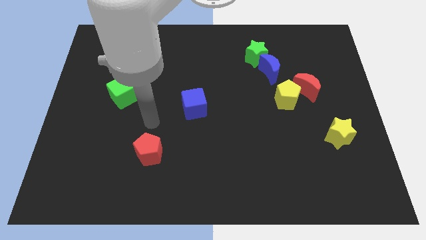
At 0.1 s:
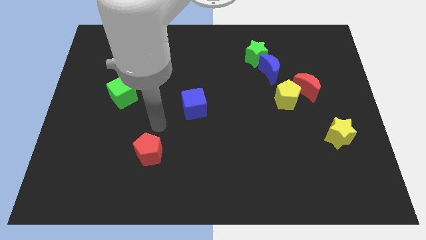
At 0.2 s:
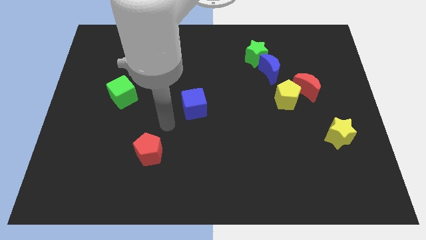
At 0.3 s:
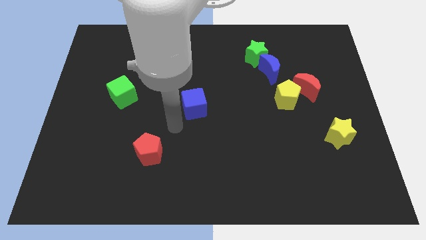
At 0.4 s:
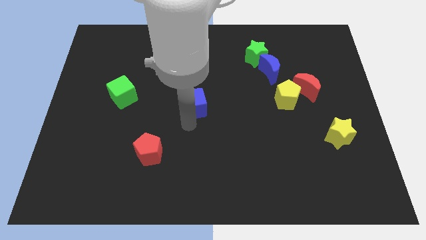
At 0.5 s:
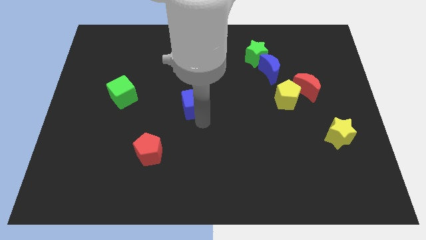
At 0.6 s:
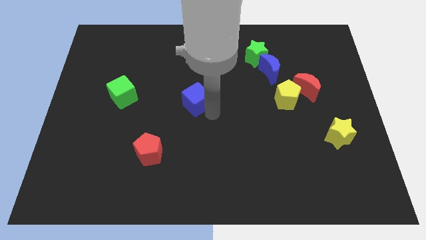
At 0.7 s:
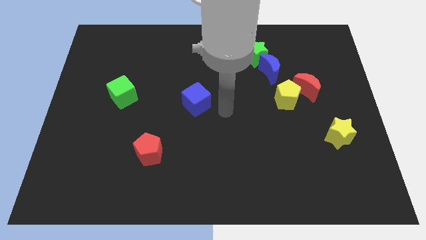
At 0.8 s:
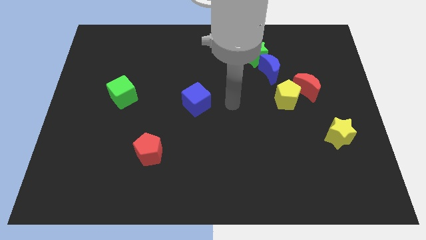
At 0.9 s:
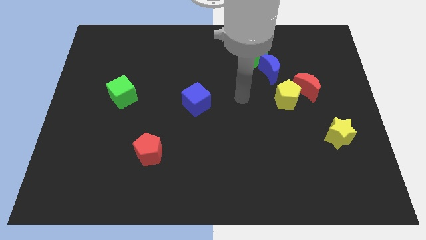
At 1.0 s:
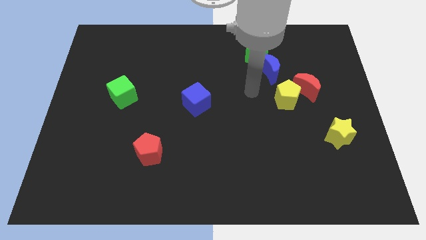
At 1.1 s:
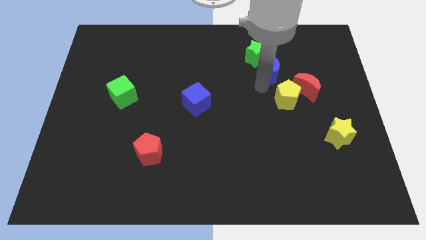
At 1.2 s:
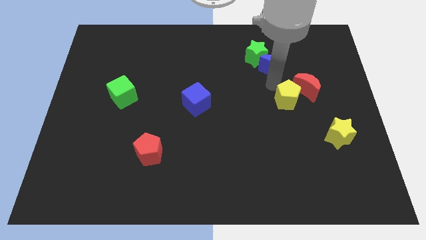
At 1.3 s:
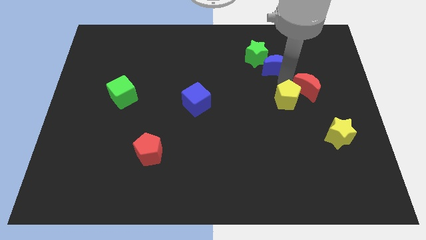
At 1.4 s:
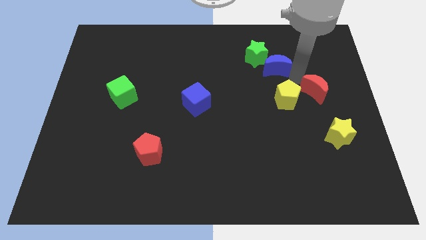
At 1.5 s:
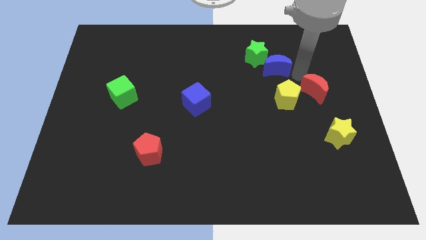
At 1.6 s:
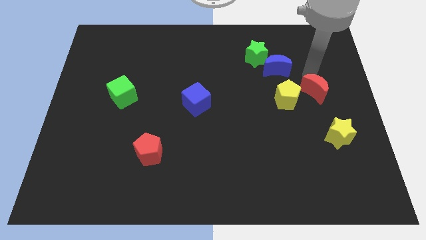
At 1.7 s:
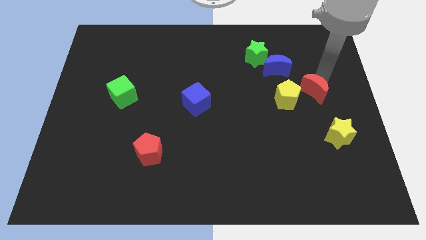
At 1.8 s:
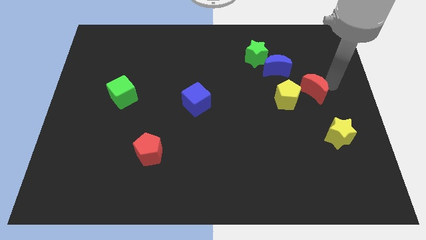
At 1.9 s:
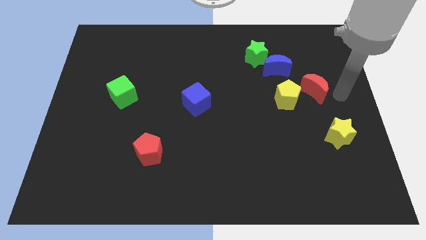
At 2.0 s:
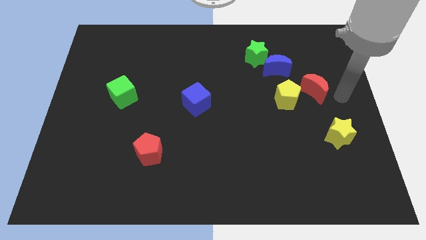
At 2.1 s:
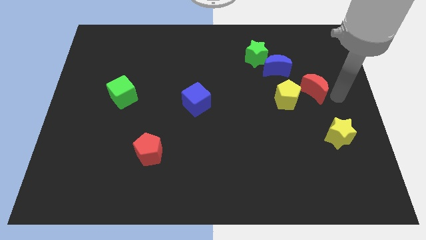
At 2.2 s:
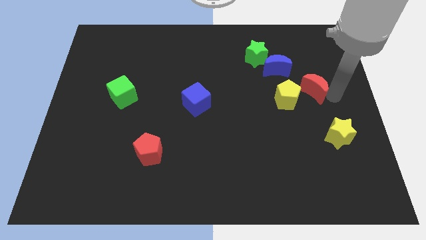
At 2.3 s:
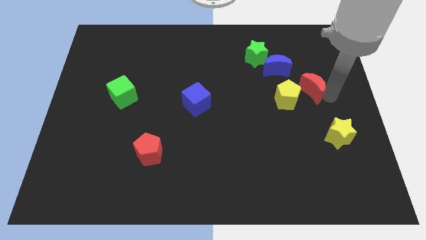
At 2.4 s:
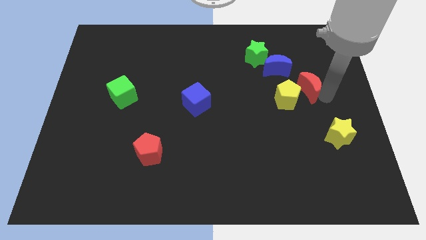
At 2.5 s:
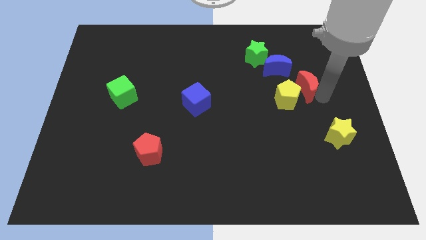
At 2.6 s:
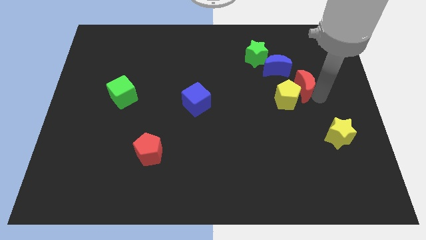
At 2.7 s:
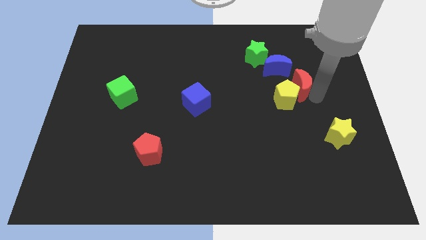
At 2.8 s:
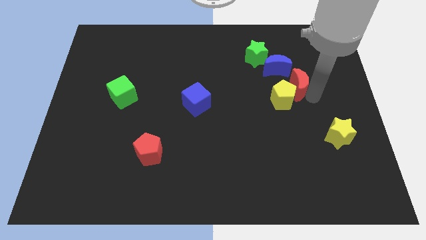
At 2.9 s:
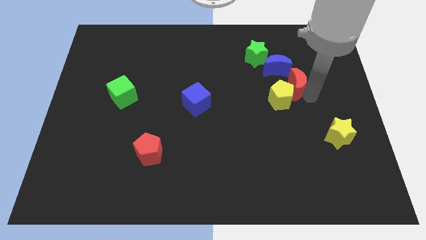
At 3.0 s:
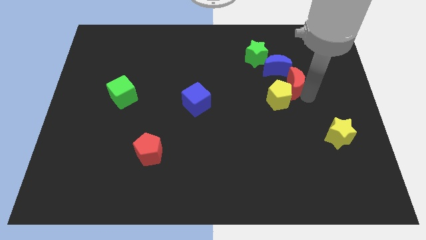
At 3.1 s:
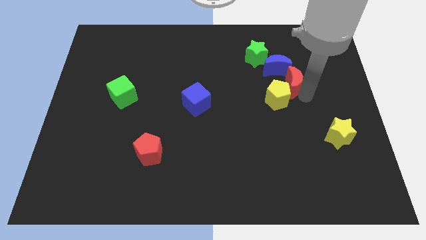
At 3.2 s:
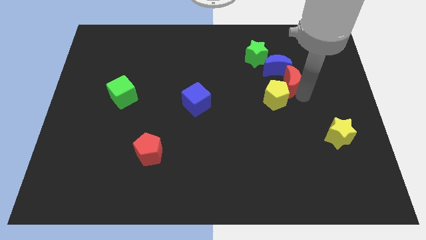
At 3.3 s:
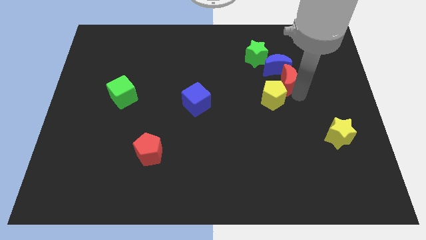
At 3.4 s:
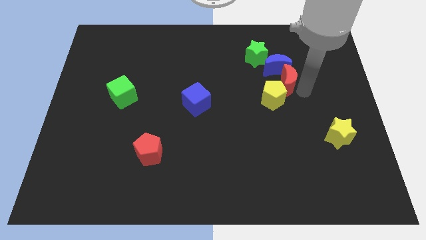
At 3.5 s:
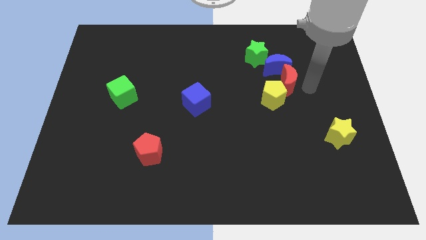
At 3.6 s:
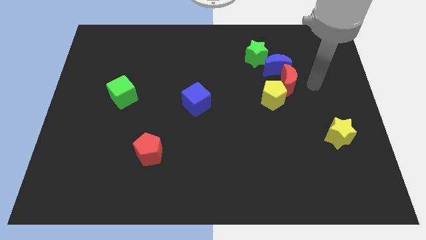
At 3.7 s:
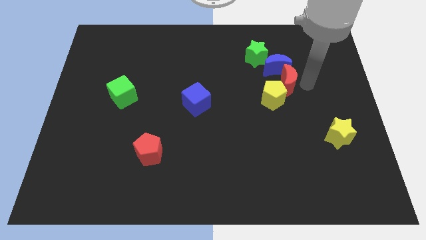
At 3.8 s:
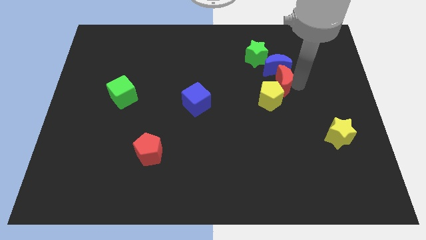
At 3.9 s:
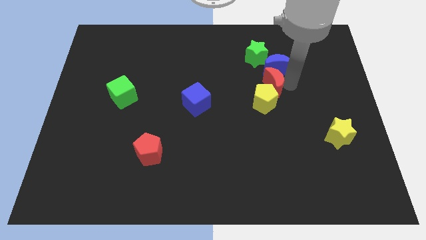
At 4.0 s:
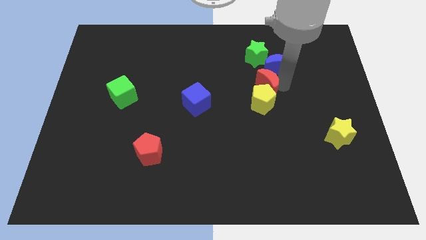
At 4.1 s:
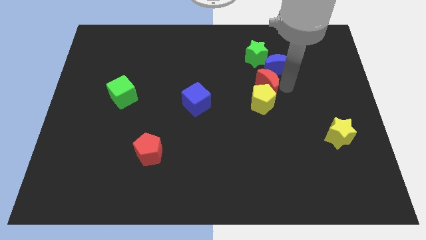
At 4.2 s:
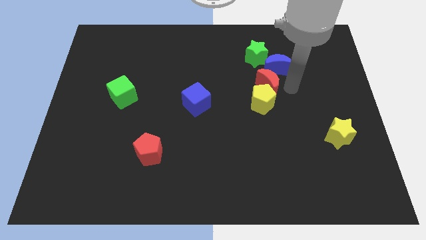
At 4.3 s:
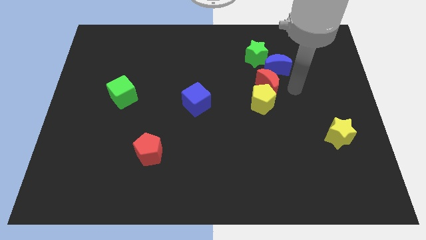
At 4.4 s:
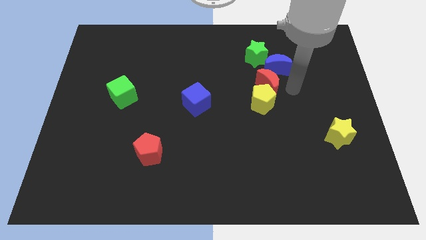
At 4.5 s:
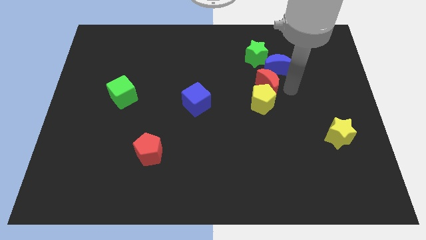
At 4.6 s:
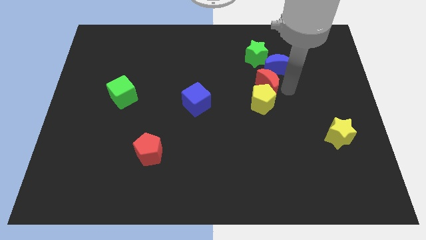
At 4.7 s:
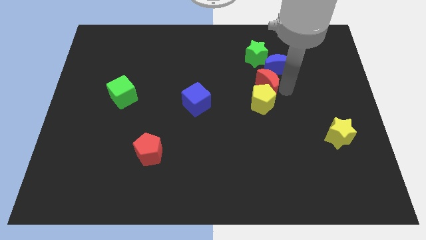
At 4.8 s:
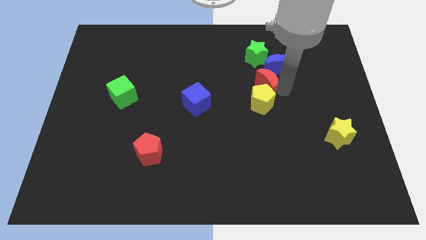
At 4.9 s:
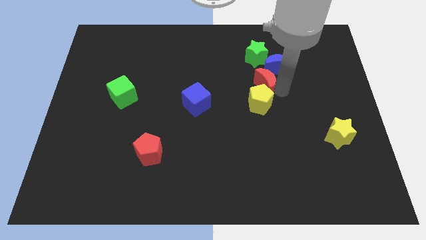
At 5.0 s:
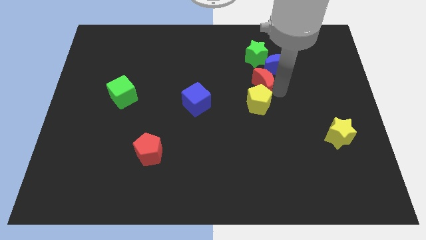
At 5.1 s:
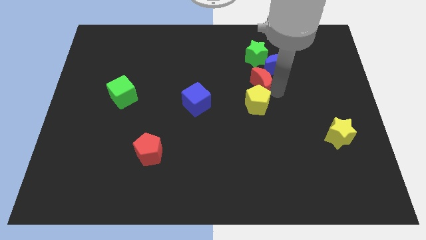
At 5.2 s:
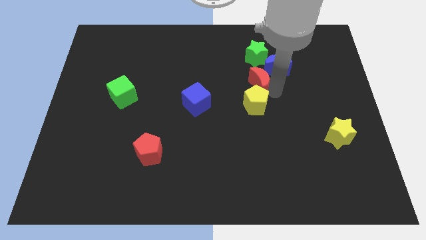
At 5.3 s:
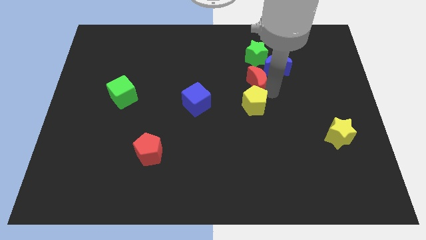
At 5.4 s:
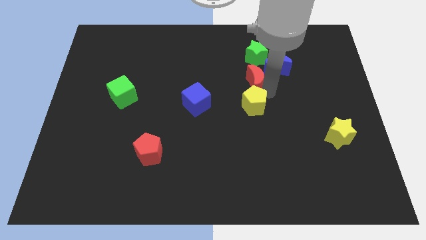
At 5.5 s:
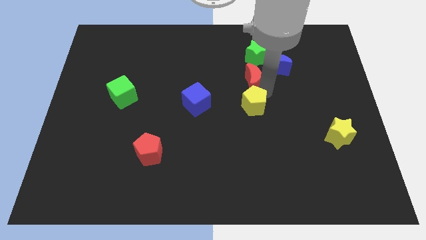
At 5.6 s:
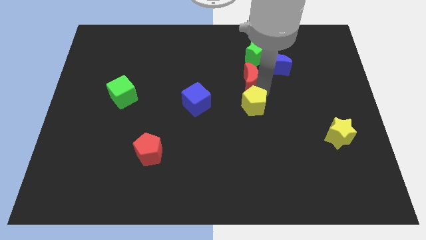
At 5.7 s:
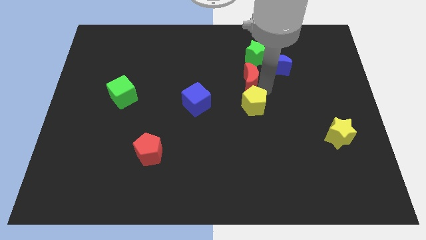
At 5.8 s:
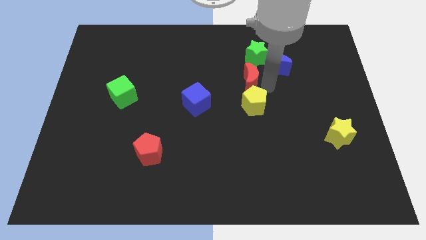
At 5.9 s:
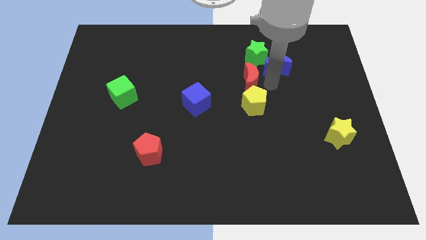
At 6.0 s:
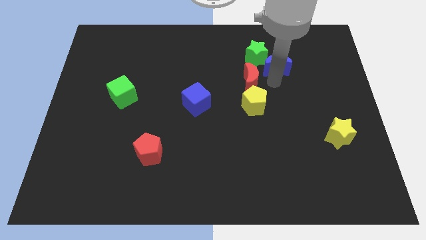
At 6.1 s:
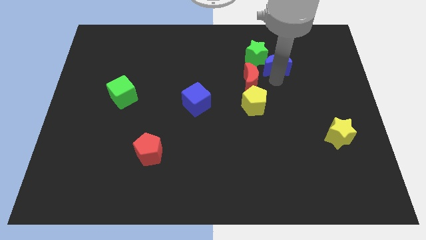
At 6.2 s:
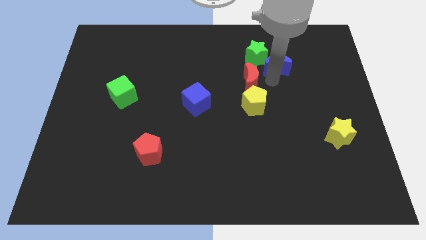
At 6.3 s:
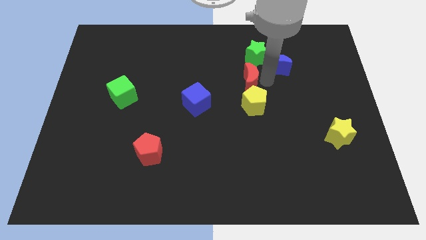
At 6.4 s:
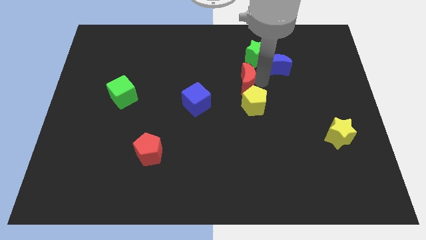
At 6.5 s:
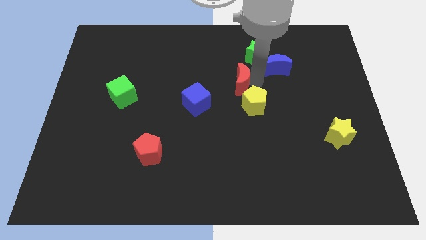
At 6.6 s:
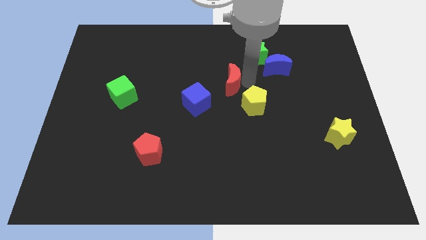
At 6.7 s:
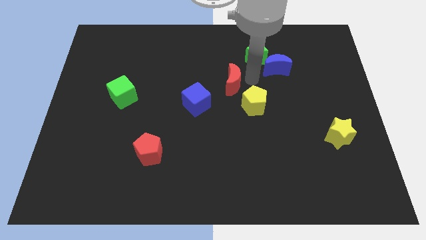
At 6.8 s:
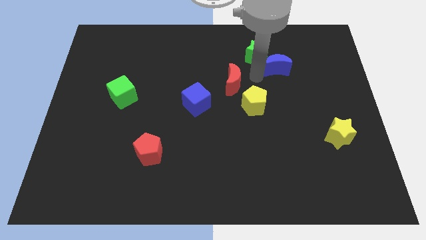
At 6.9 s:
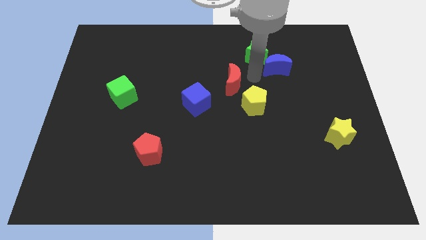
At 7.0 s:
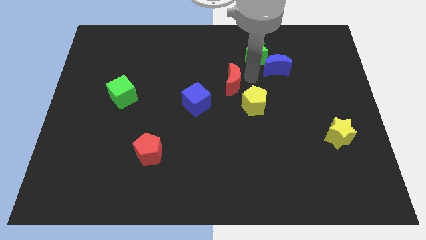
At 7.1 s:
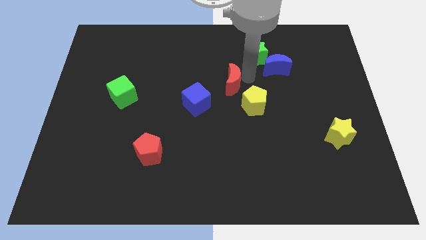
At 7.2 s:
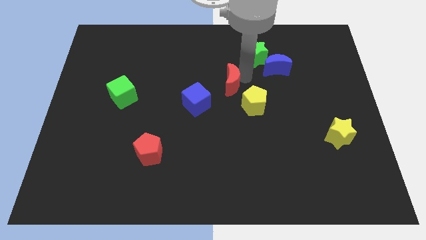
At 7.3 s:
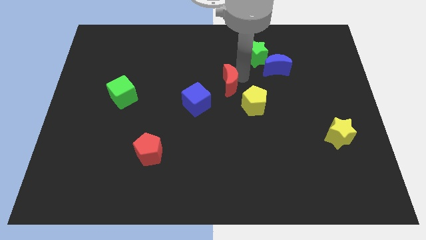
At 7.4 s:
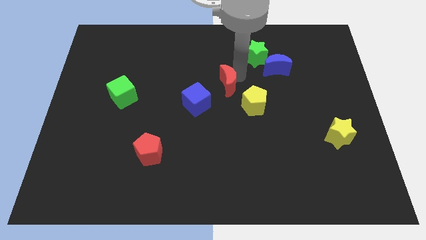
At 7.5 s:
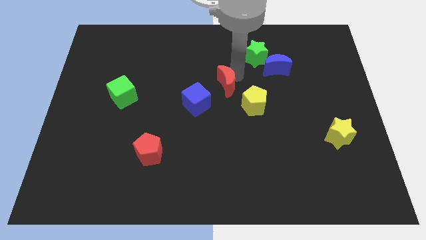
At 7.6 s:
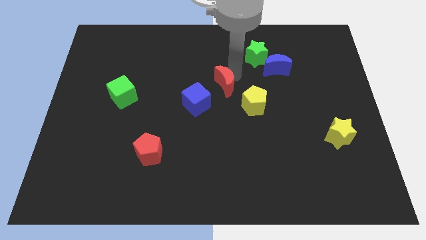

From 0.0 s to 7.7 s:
slide the red moon left

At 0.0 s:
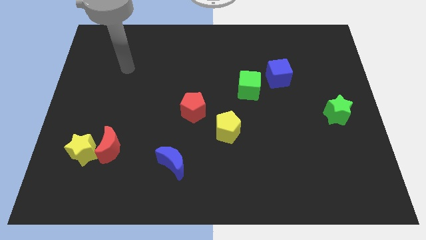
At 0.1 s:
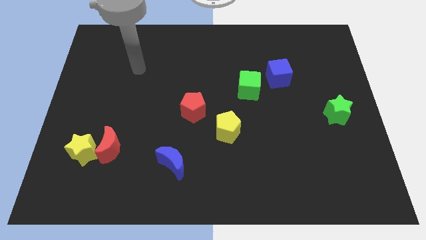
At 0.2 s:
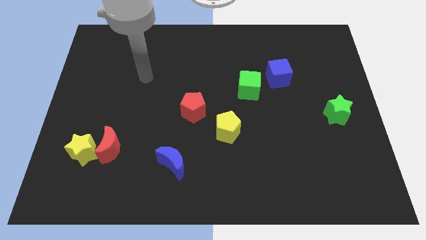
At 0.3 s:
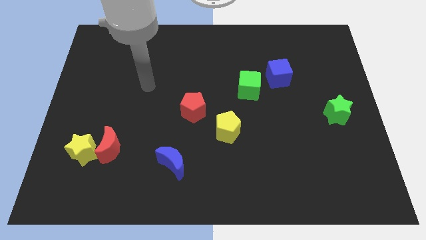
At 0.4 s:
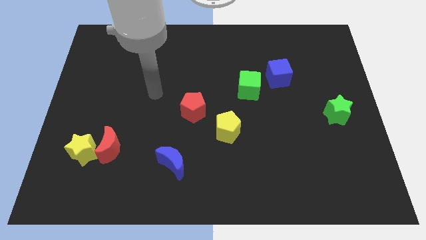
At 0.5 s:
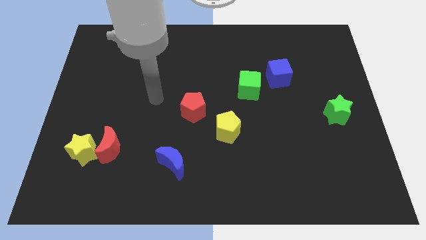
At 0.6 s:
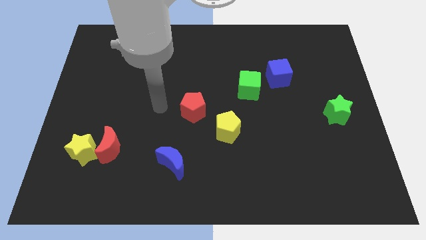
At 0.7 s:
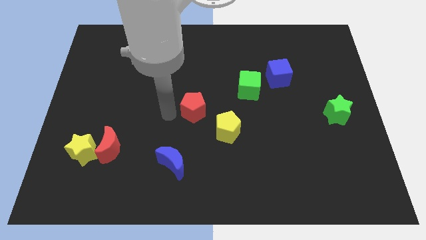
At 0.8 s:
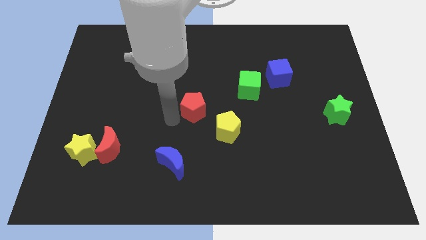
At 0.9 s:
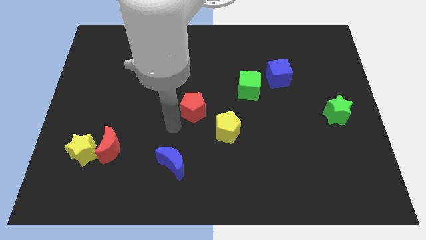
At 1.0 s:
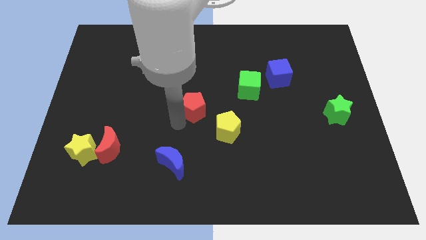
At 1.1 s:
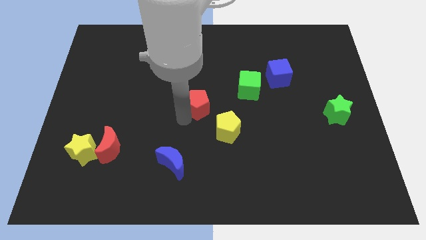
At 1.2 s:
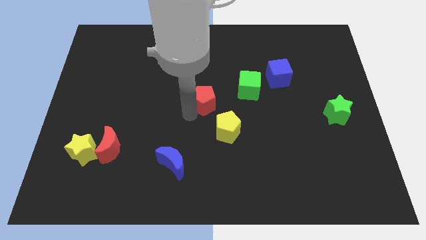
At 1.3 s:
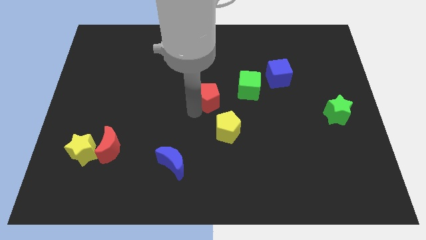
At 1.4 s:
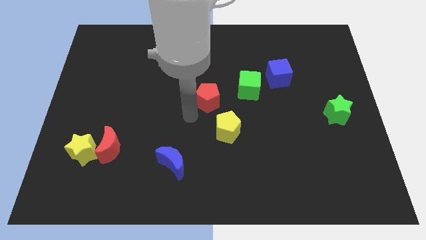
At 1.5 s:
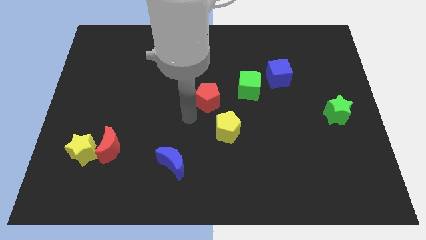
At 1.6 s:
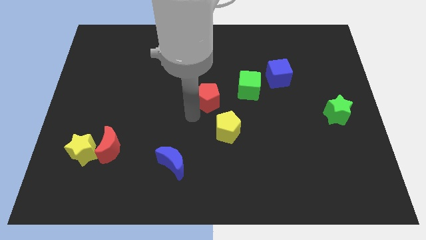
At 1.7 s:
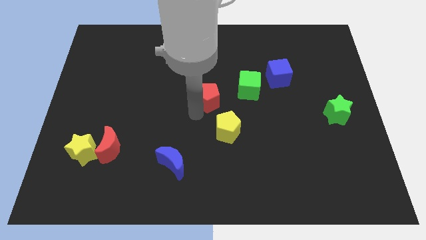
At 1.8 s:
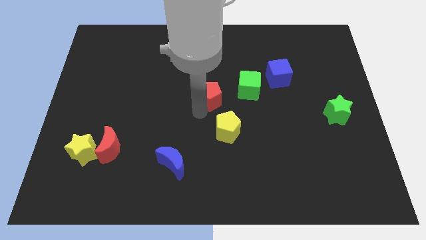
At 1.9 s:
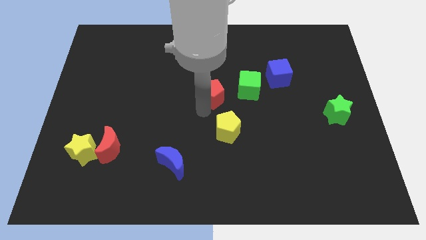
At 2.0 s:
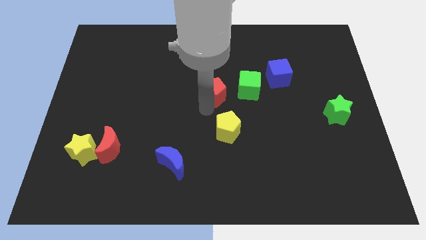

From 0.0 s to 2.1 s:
slide the red pentagon slightly diagonally upwards and right
